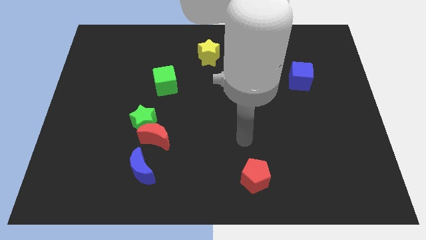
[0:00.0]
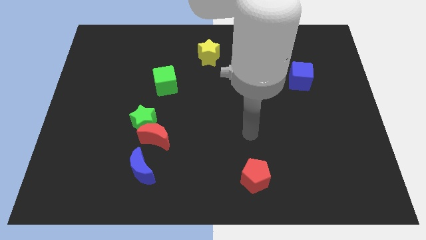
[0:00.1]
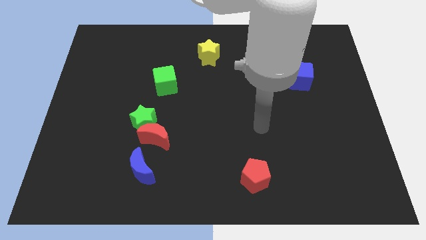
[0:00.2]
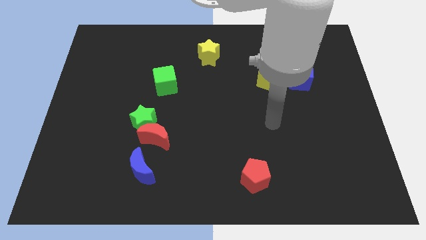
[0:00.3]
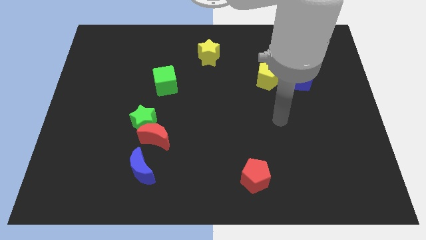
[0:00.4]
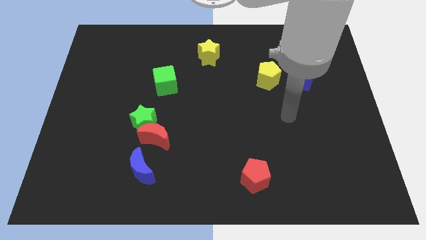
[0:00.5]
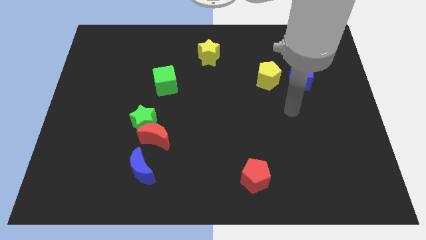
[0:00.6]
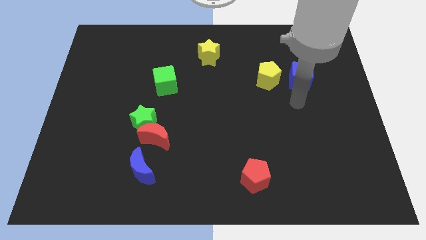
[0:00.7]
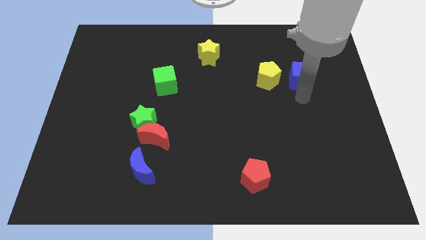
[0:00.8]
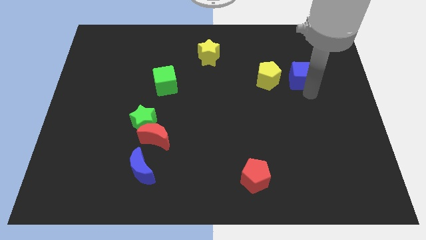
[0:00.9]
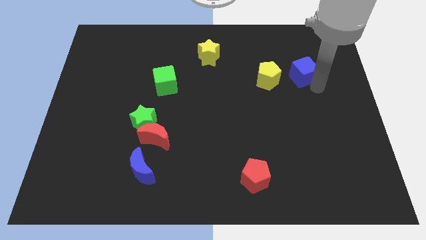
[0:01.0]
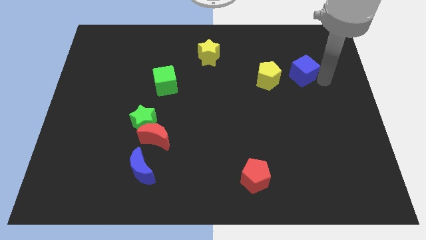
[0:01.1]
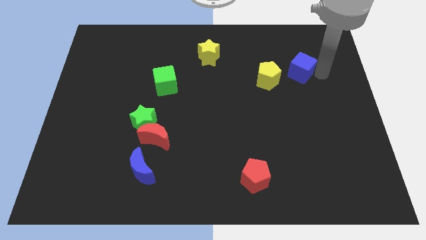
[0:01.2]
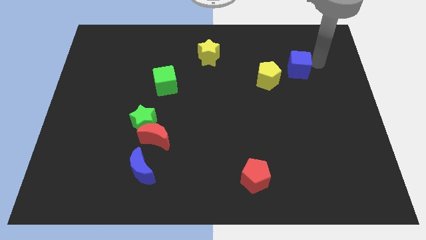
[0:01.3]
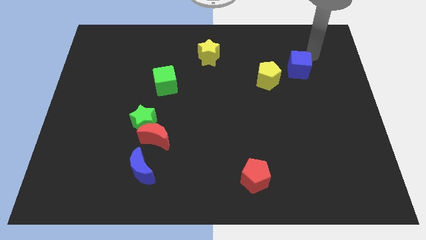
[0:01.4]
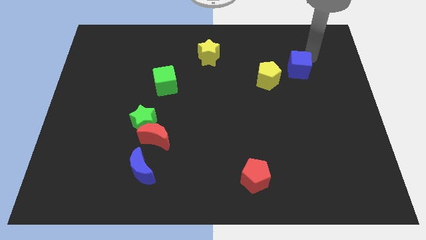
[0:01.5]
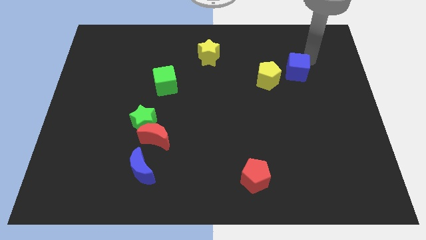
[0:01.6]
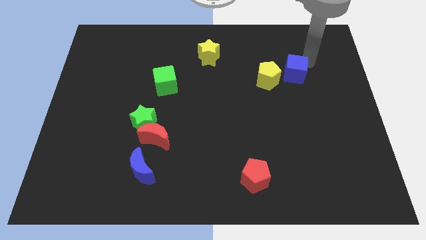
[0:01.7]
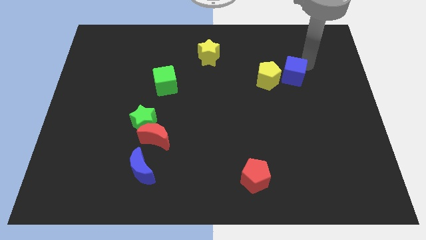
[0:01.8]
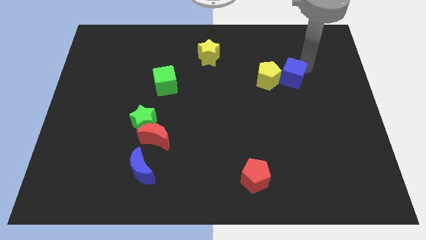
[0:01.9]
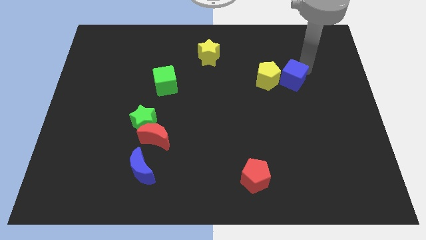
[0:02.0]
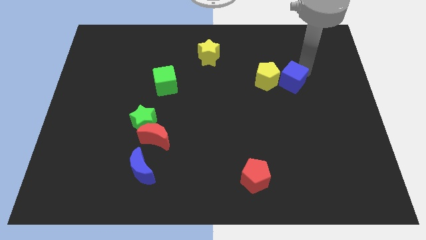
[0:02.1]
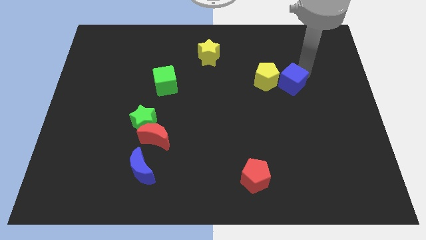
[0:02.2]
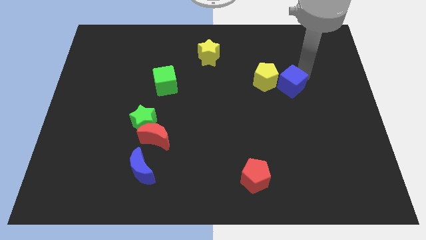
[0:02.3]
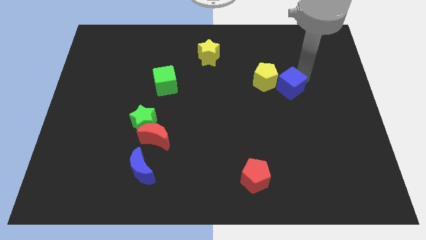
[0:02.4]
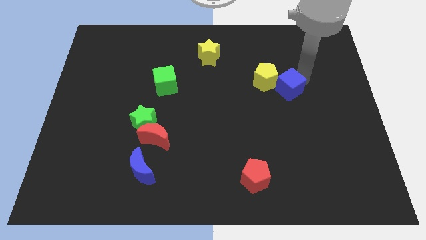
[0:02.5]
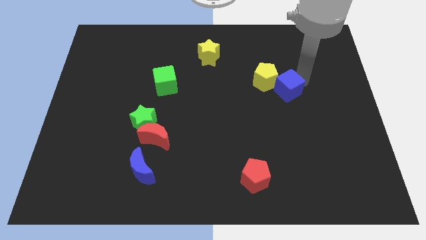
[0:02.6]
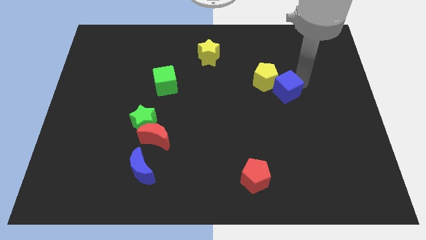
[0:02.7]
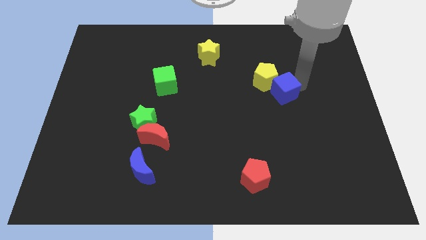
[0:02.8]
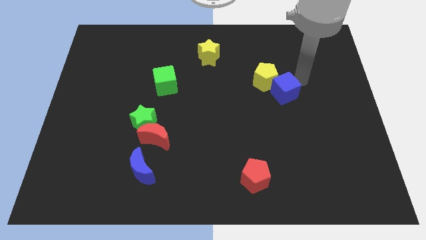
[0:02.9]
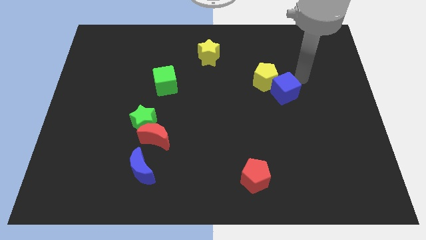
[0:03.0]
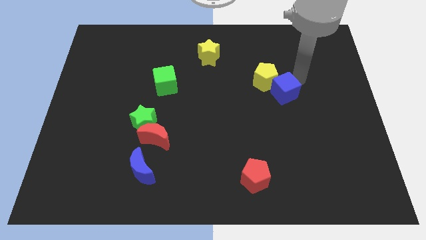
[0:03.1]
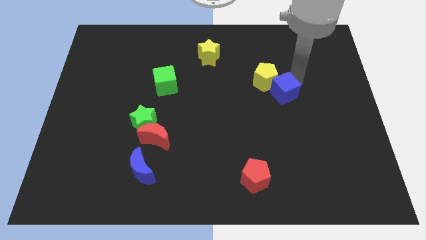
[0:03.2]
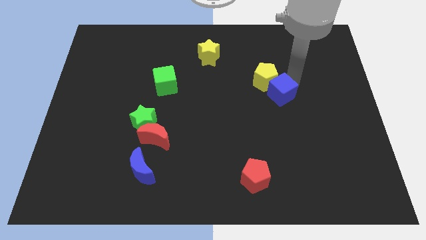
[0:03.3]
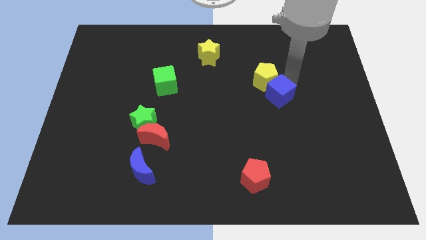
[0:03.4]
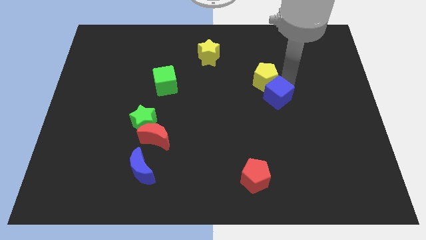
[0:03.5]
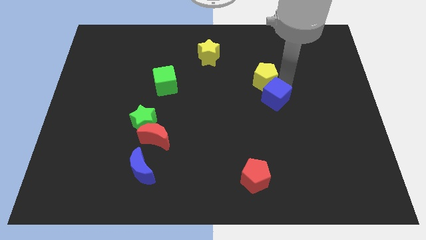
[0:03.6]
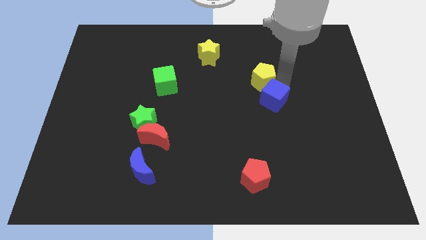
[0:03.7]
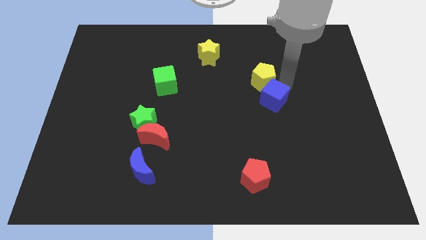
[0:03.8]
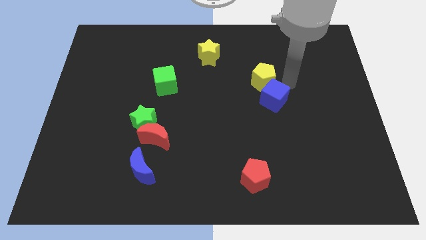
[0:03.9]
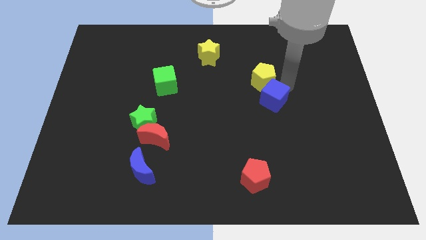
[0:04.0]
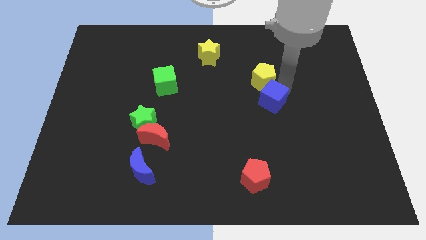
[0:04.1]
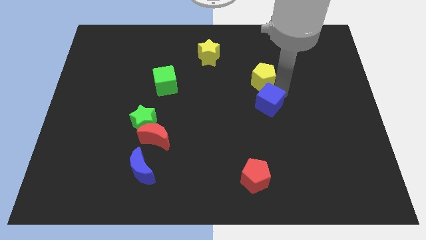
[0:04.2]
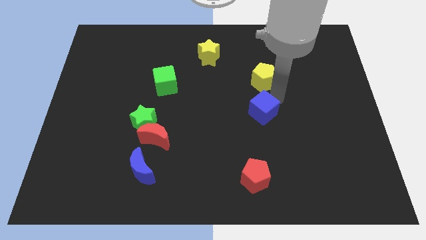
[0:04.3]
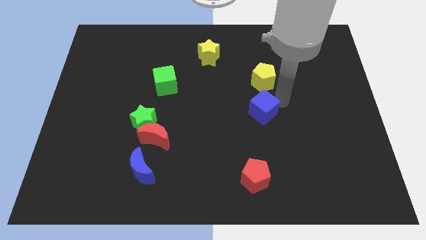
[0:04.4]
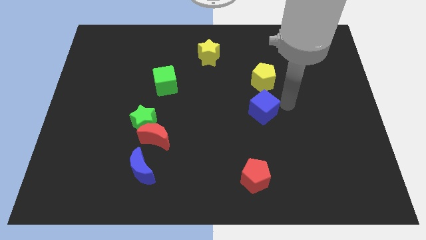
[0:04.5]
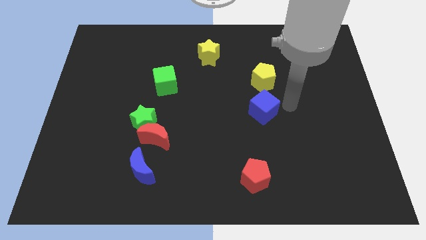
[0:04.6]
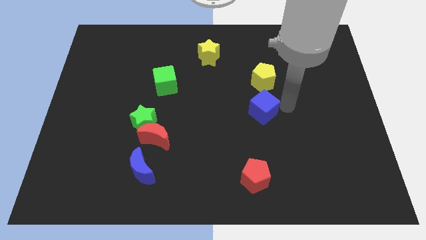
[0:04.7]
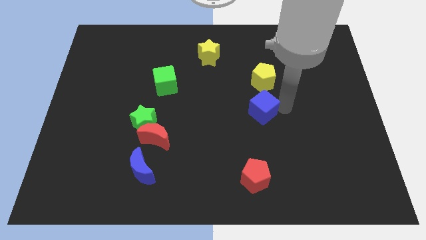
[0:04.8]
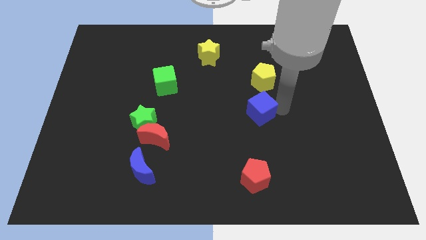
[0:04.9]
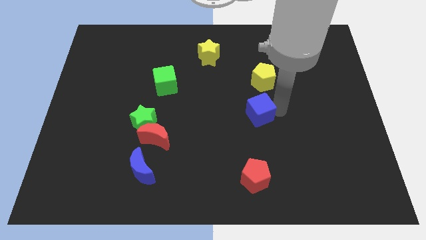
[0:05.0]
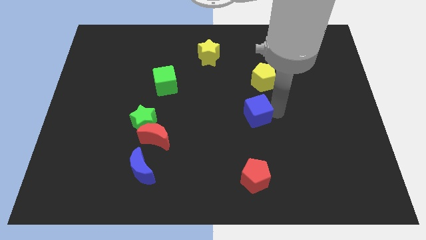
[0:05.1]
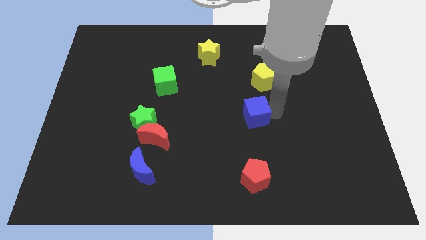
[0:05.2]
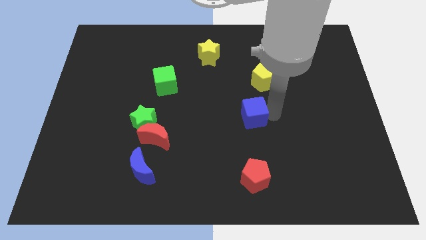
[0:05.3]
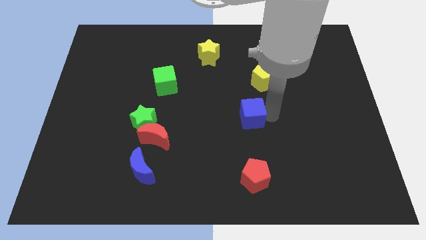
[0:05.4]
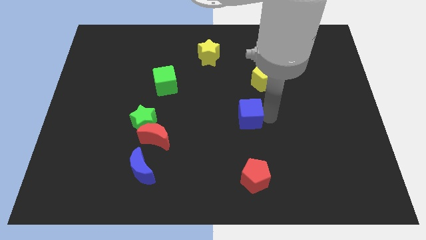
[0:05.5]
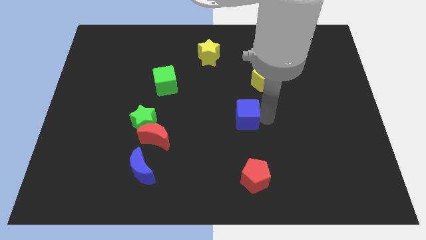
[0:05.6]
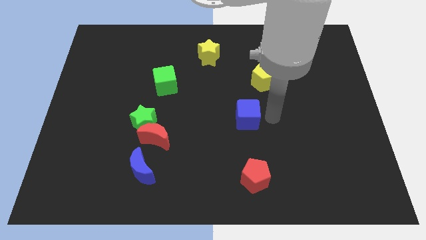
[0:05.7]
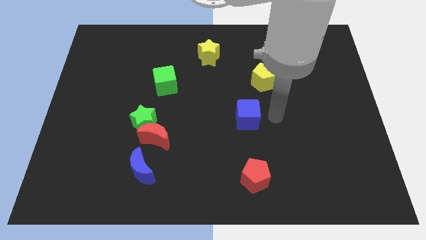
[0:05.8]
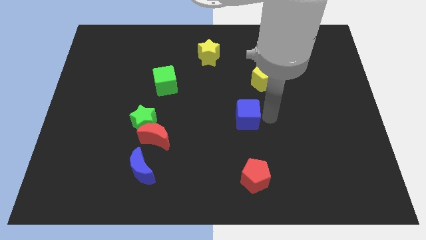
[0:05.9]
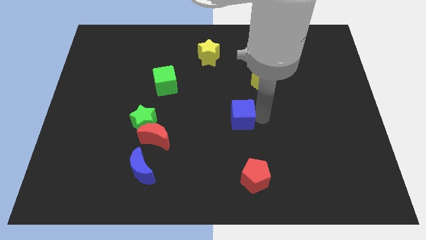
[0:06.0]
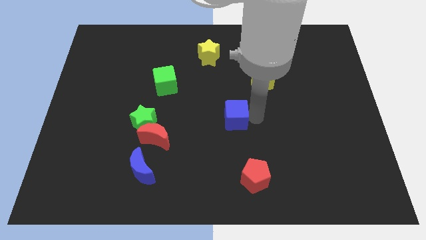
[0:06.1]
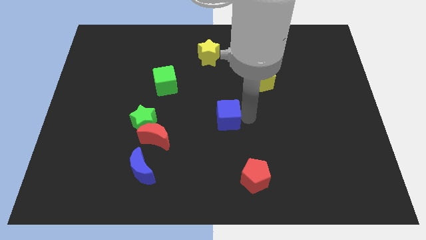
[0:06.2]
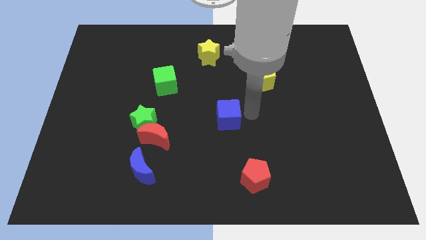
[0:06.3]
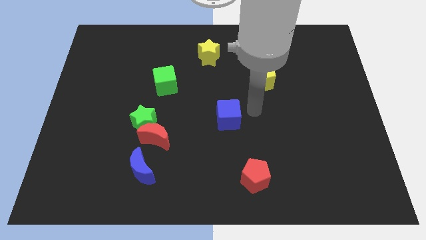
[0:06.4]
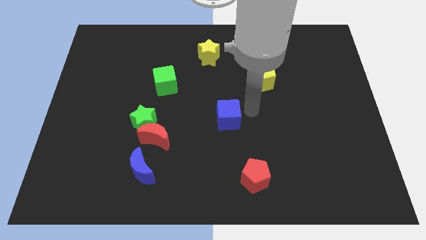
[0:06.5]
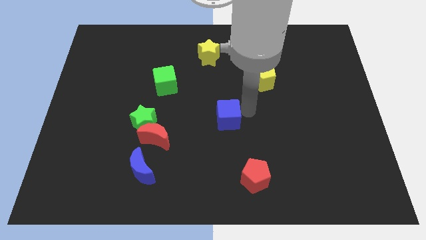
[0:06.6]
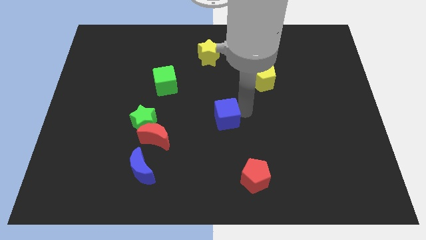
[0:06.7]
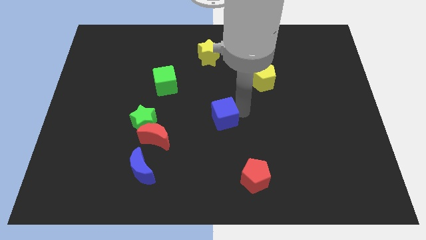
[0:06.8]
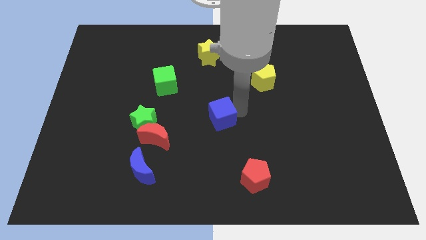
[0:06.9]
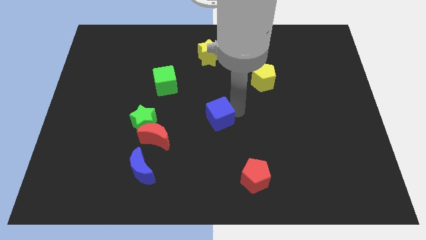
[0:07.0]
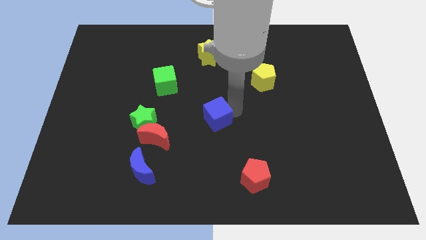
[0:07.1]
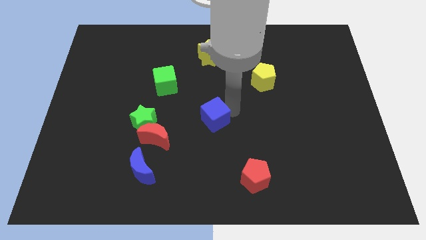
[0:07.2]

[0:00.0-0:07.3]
push the blue cube just right of the green star

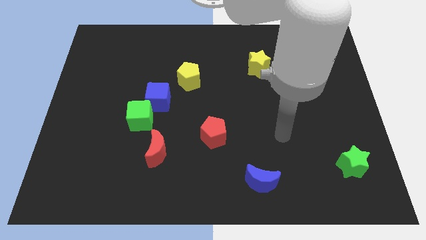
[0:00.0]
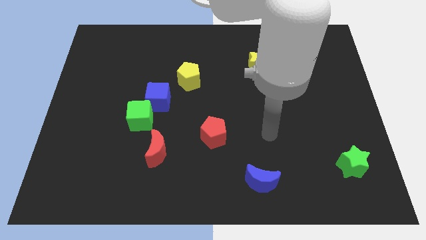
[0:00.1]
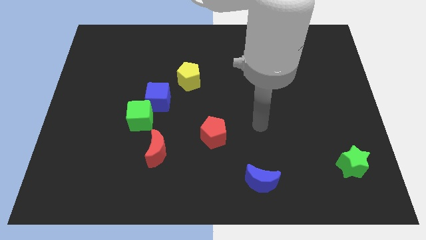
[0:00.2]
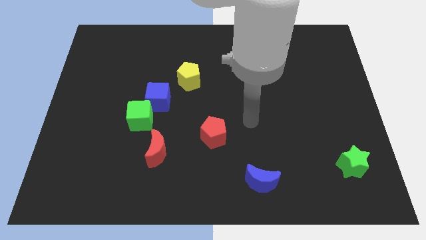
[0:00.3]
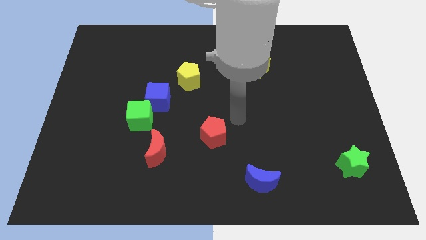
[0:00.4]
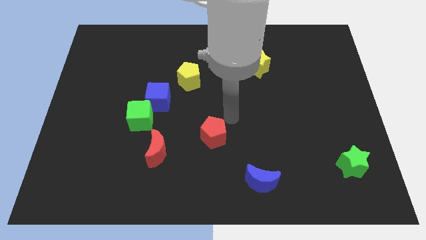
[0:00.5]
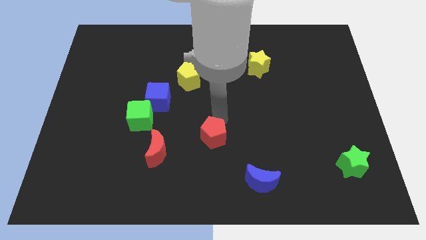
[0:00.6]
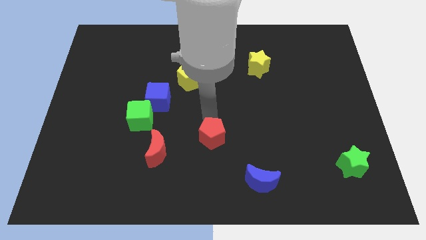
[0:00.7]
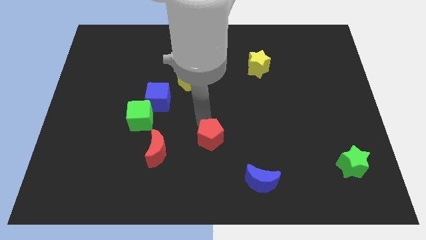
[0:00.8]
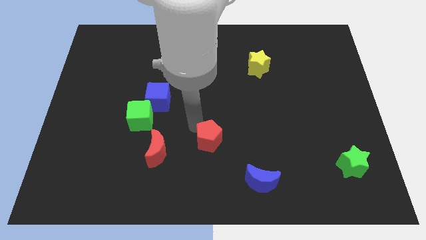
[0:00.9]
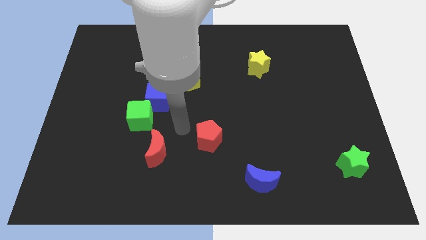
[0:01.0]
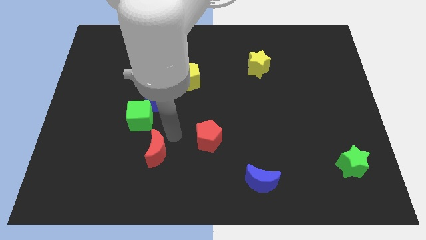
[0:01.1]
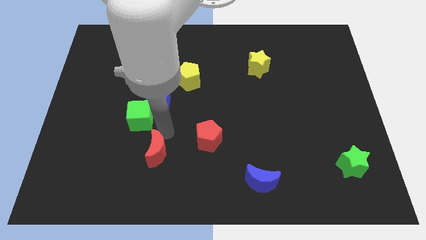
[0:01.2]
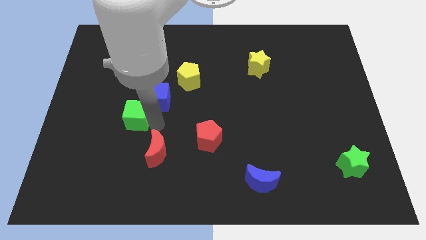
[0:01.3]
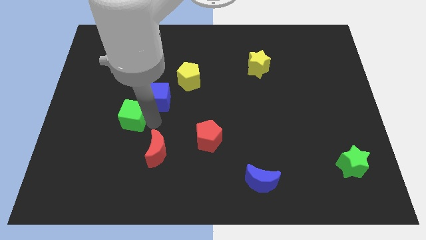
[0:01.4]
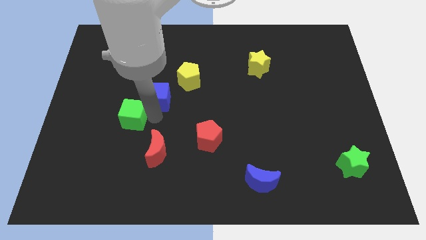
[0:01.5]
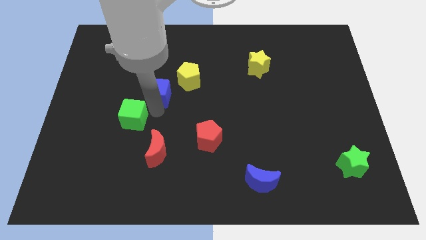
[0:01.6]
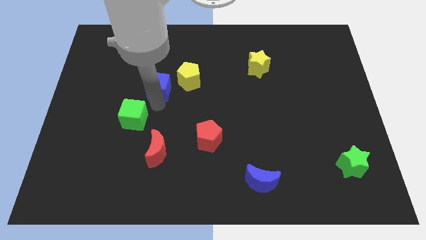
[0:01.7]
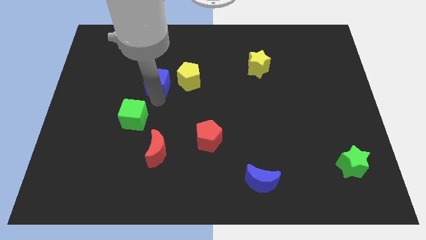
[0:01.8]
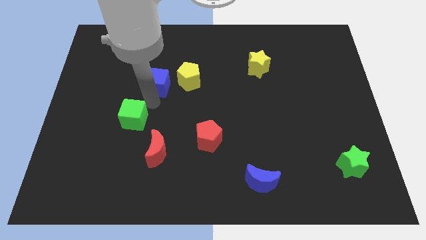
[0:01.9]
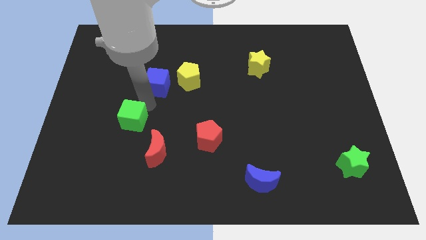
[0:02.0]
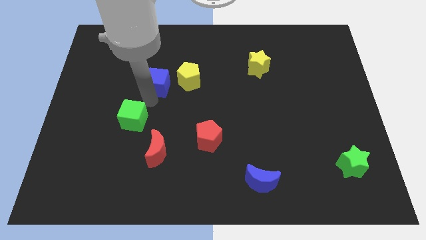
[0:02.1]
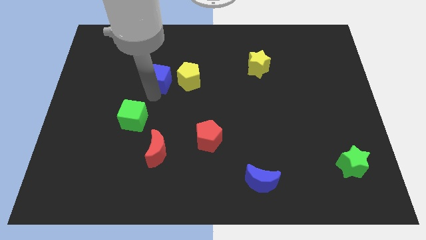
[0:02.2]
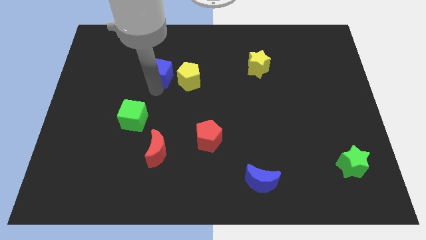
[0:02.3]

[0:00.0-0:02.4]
slide the blue cube diagonally up and to the left of the yellow pentagon
